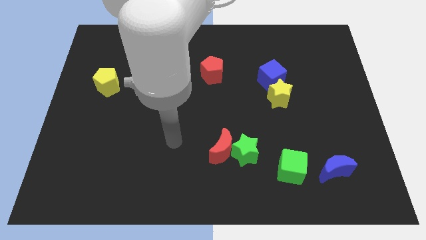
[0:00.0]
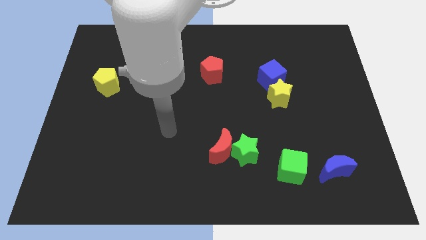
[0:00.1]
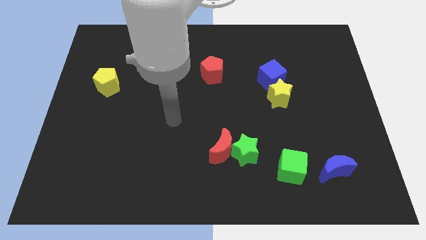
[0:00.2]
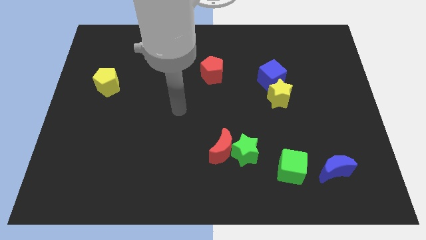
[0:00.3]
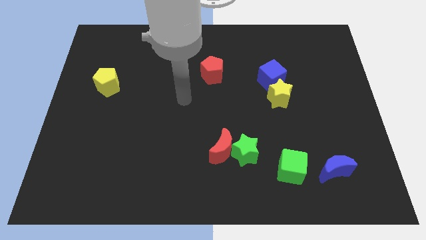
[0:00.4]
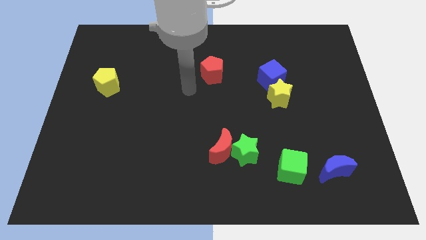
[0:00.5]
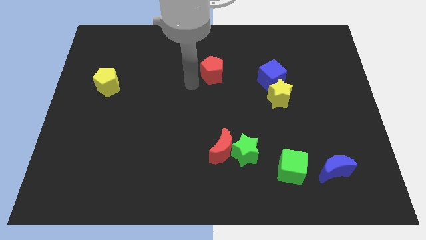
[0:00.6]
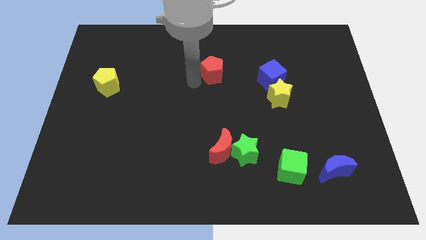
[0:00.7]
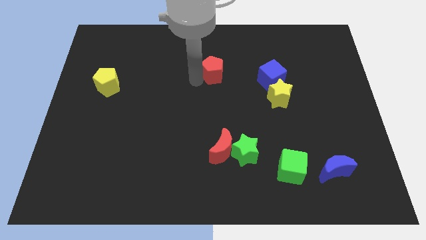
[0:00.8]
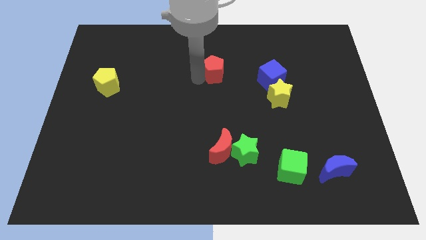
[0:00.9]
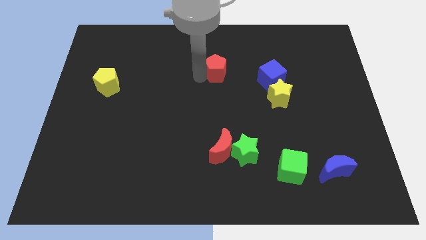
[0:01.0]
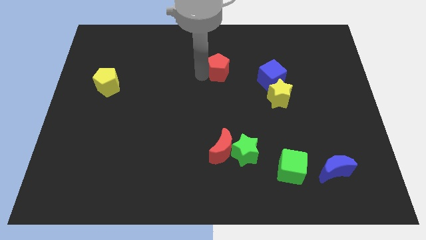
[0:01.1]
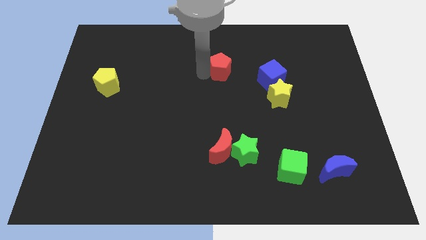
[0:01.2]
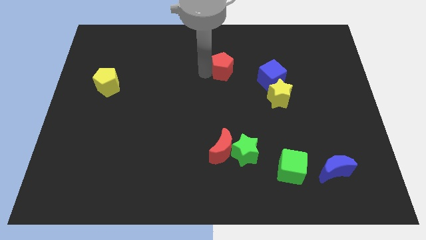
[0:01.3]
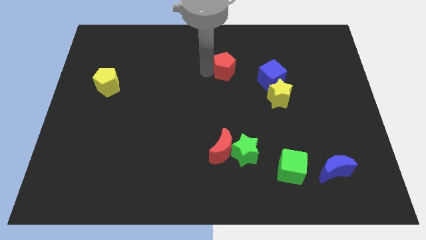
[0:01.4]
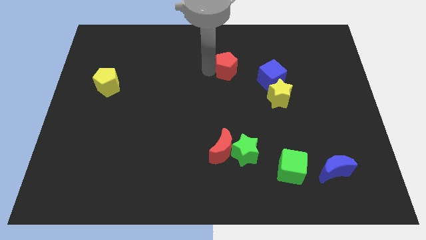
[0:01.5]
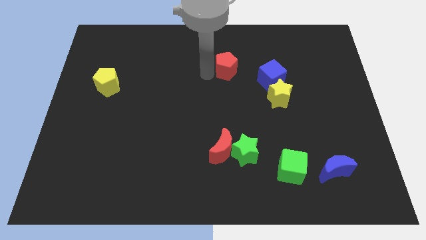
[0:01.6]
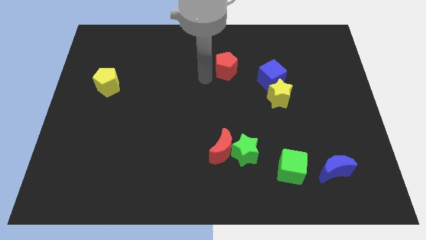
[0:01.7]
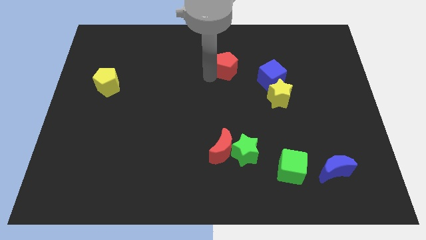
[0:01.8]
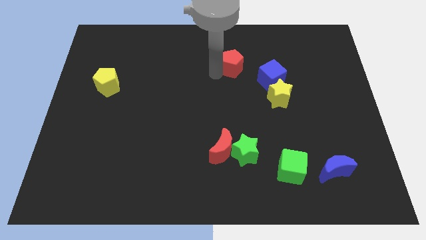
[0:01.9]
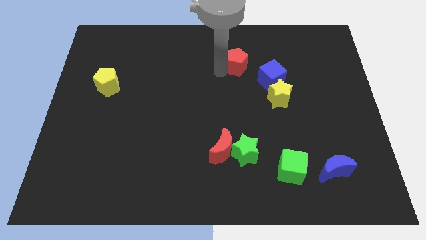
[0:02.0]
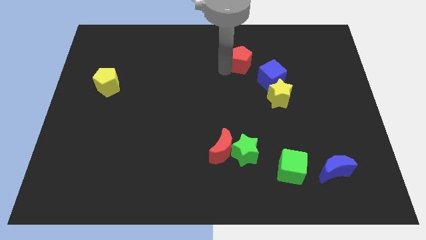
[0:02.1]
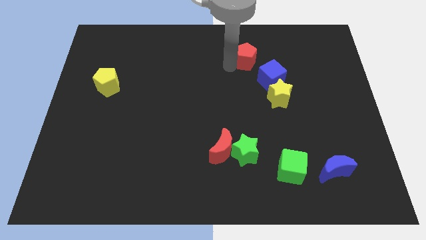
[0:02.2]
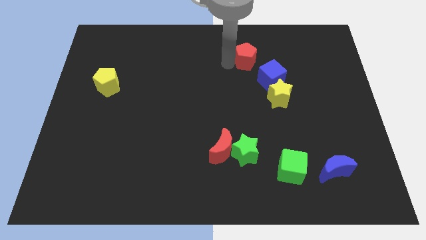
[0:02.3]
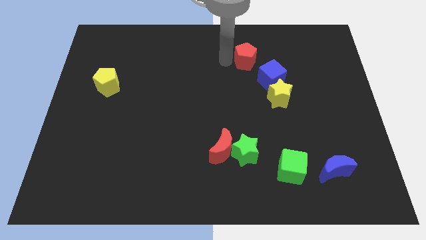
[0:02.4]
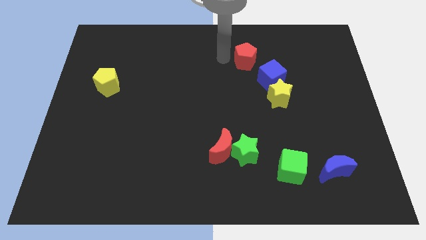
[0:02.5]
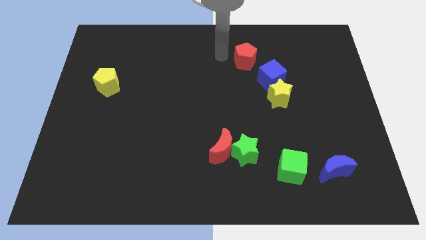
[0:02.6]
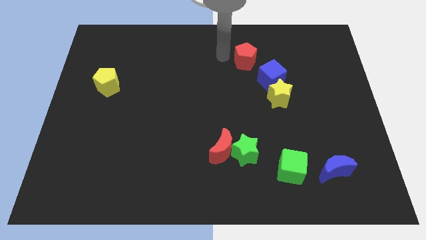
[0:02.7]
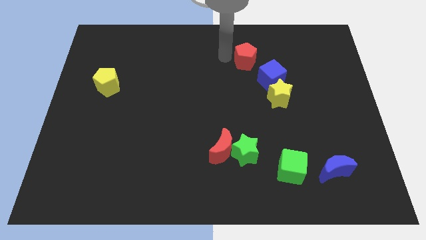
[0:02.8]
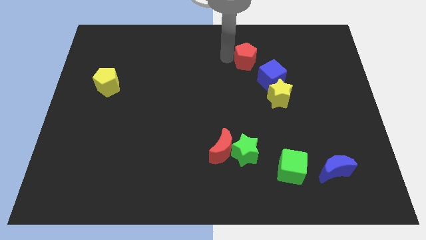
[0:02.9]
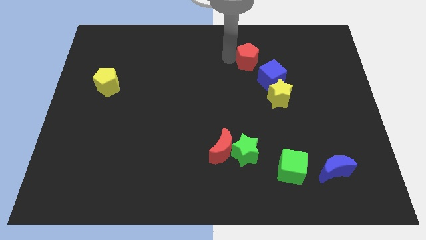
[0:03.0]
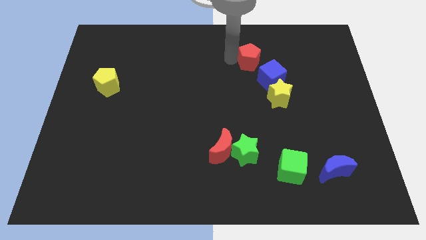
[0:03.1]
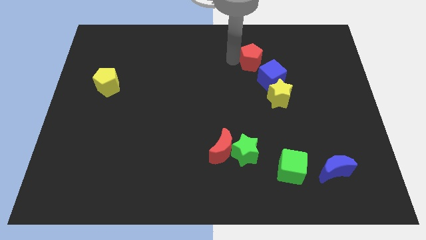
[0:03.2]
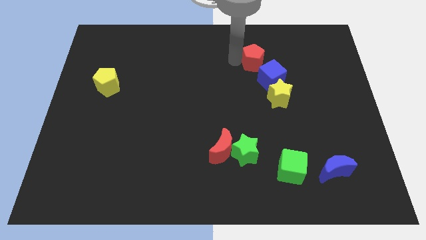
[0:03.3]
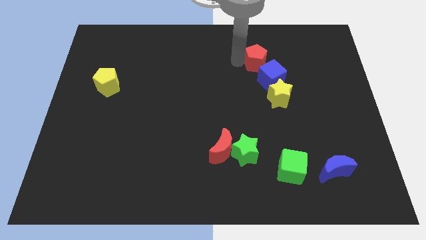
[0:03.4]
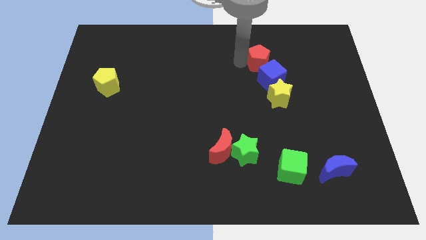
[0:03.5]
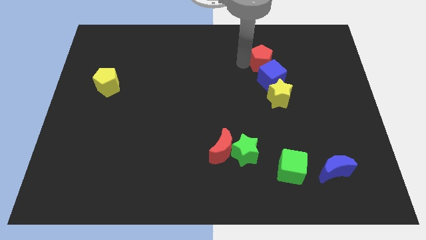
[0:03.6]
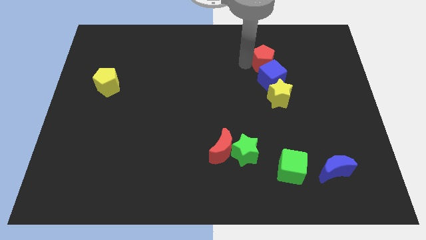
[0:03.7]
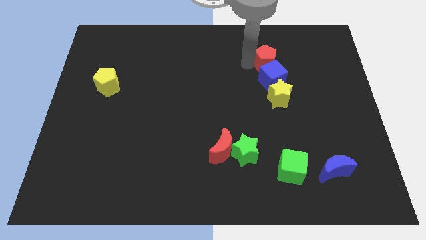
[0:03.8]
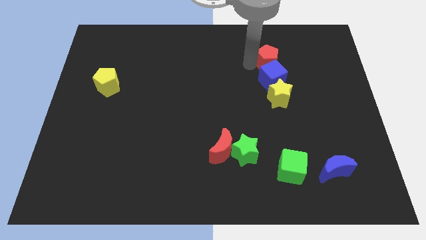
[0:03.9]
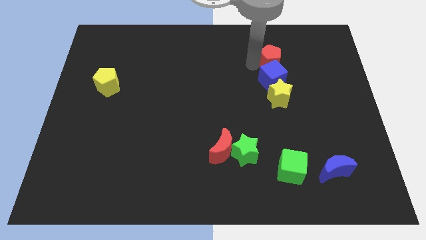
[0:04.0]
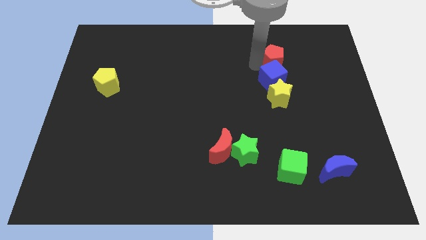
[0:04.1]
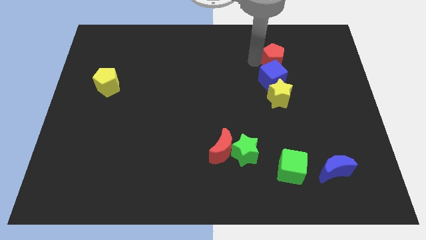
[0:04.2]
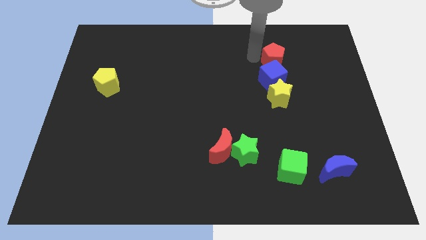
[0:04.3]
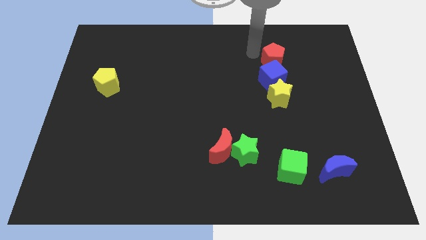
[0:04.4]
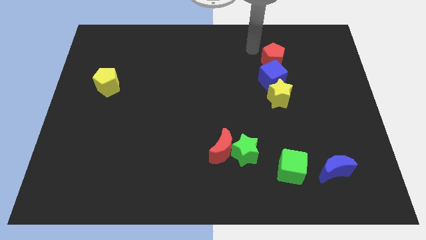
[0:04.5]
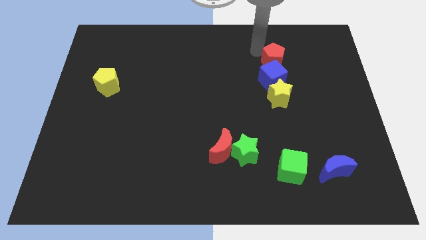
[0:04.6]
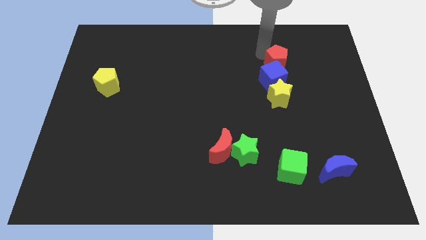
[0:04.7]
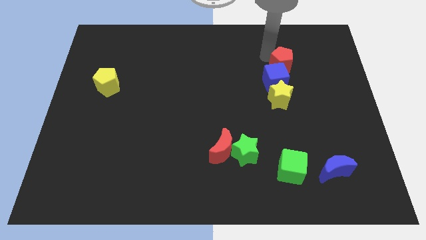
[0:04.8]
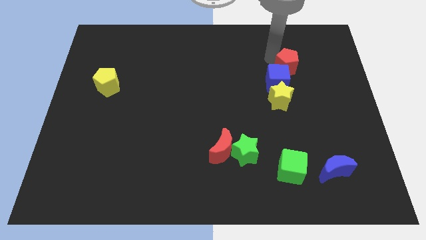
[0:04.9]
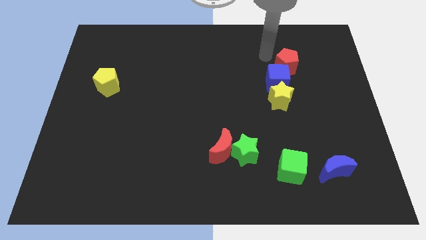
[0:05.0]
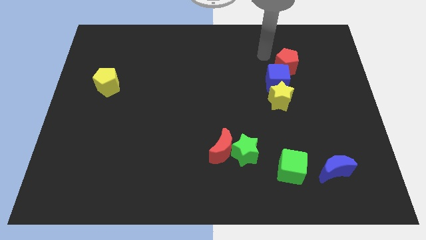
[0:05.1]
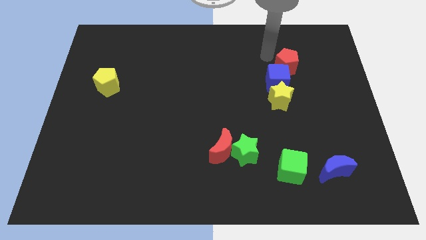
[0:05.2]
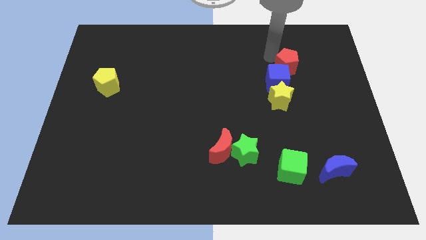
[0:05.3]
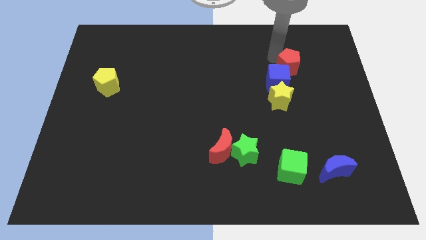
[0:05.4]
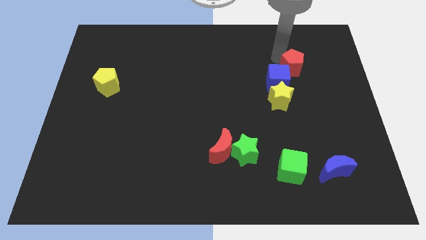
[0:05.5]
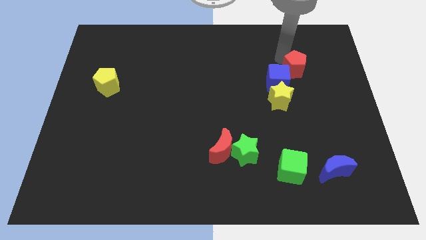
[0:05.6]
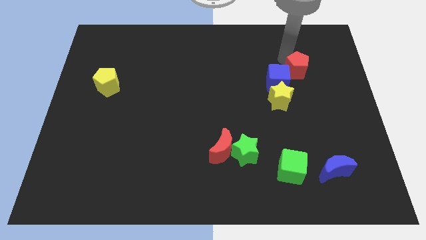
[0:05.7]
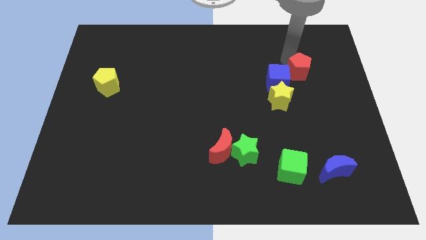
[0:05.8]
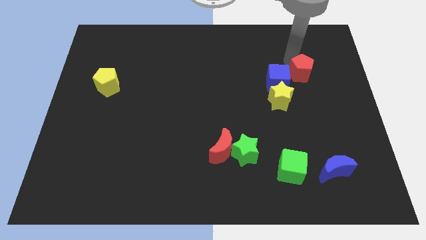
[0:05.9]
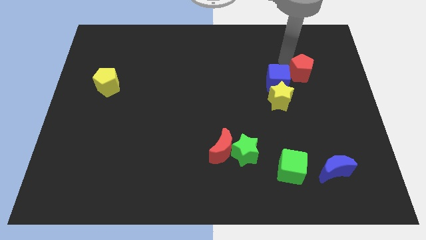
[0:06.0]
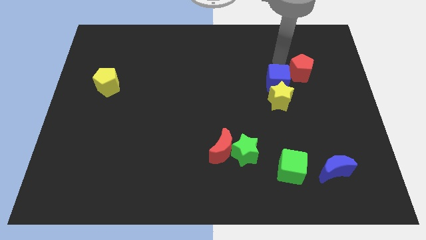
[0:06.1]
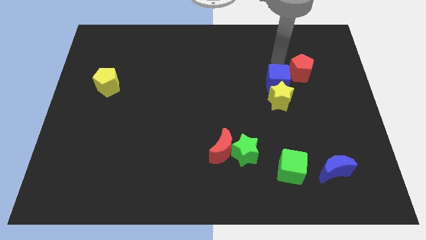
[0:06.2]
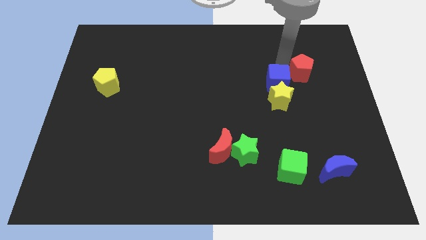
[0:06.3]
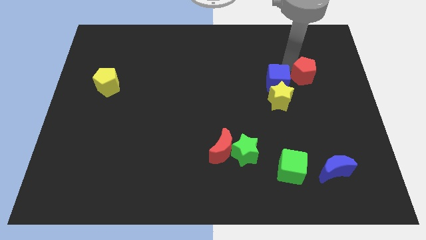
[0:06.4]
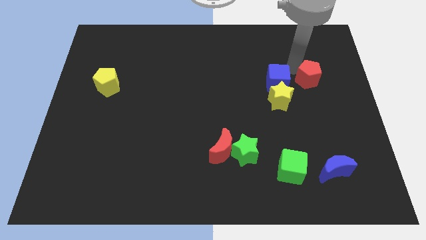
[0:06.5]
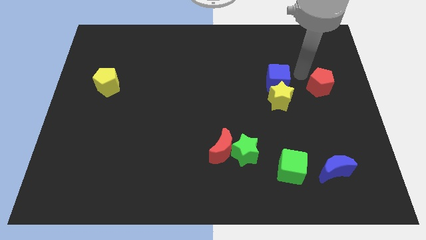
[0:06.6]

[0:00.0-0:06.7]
put the red pentagon to the center right

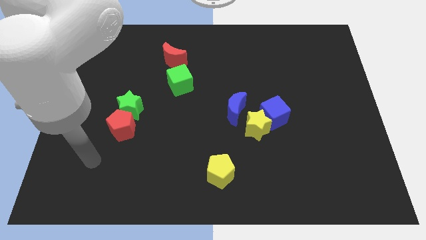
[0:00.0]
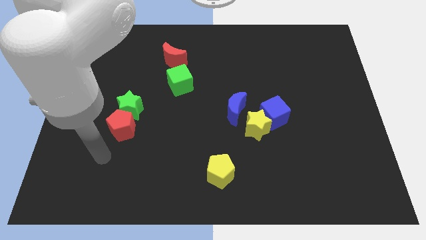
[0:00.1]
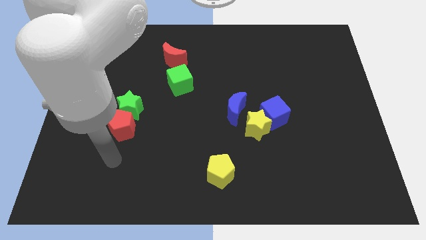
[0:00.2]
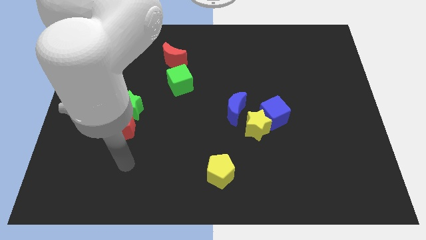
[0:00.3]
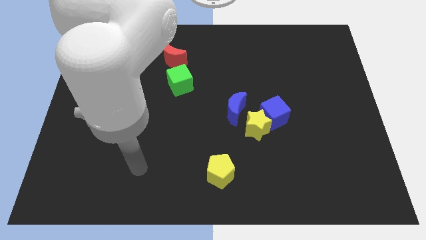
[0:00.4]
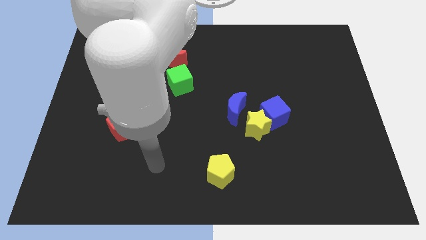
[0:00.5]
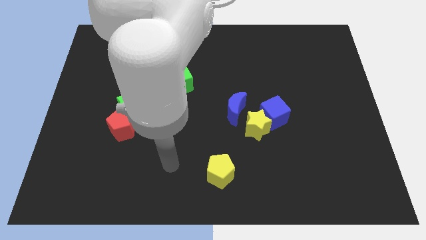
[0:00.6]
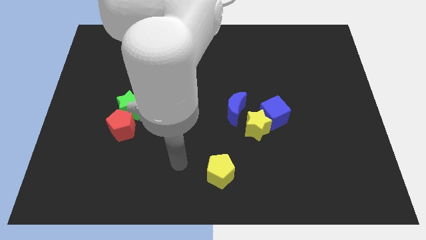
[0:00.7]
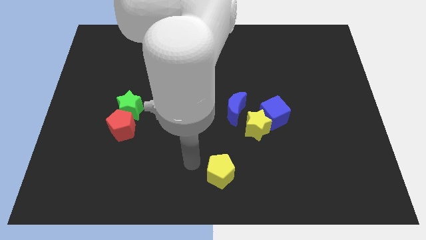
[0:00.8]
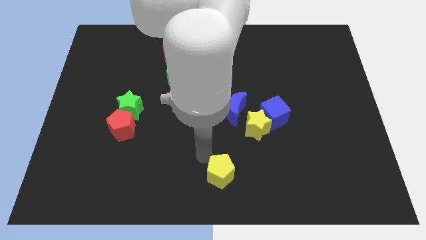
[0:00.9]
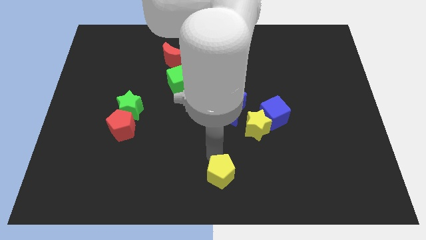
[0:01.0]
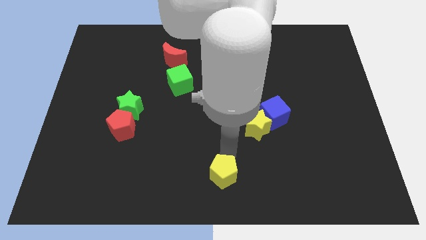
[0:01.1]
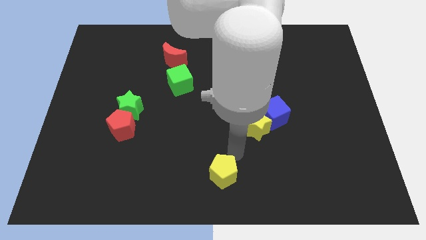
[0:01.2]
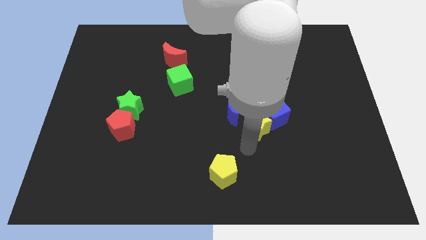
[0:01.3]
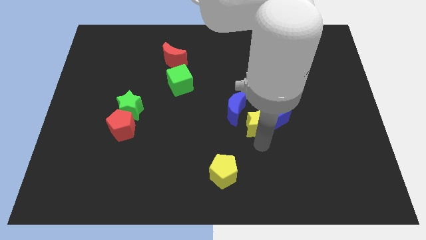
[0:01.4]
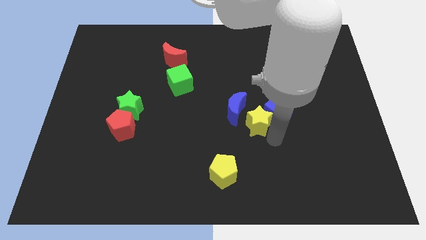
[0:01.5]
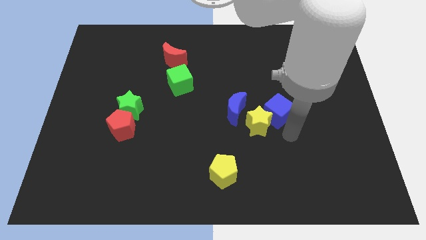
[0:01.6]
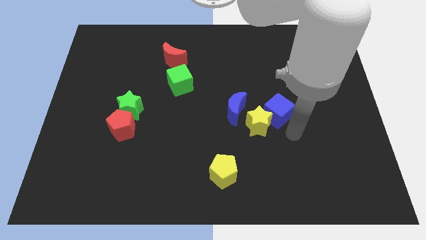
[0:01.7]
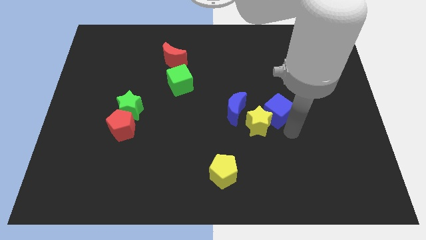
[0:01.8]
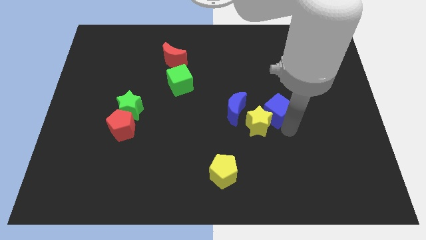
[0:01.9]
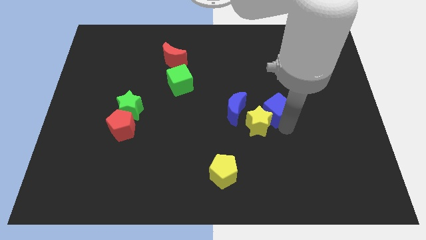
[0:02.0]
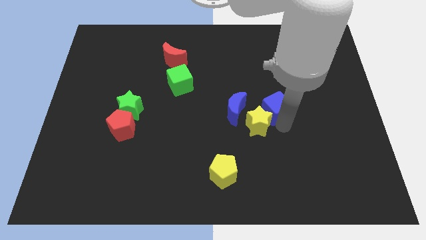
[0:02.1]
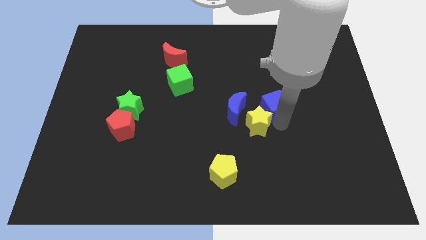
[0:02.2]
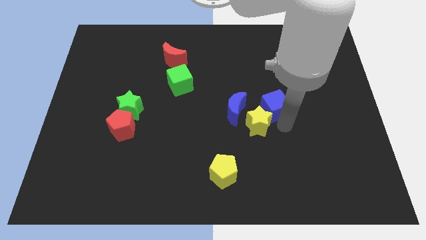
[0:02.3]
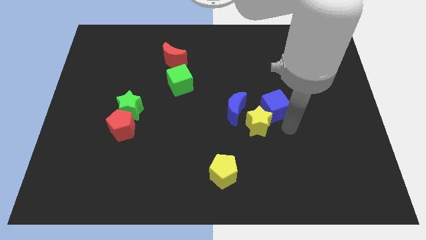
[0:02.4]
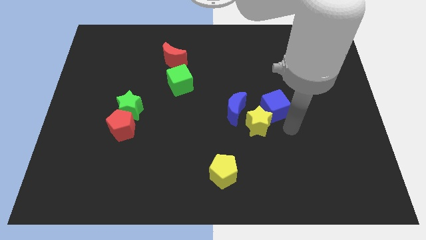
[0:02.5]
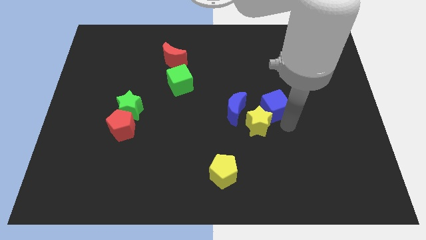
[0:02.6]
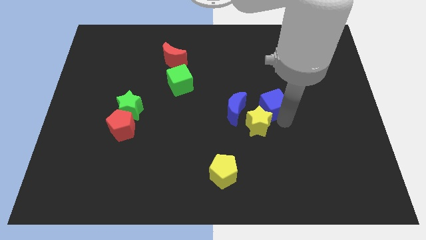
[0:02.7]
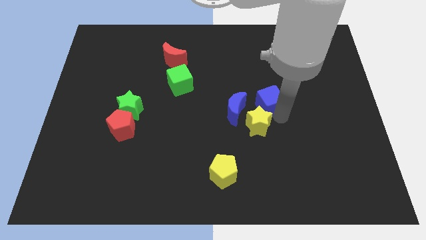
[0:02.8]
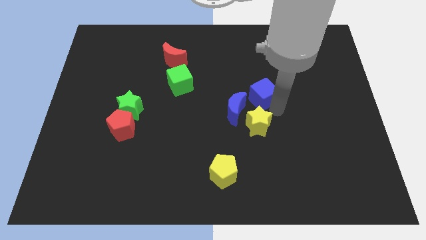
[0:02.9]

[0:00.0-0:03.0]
put the blue cube to the center
